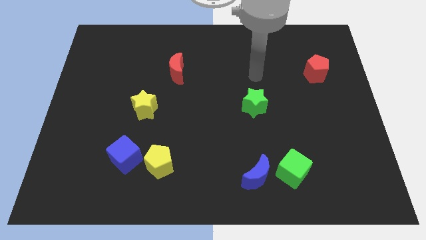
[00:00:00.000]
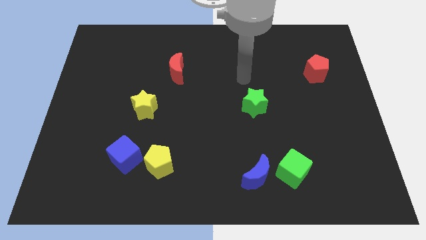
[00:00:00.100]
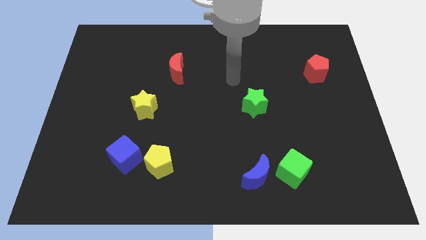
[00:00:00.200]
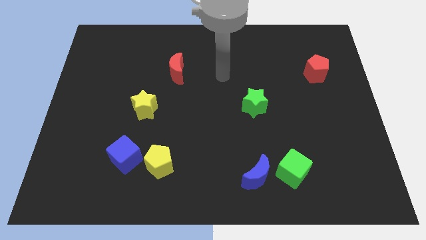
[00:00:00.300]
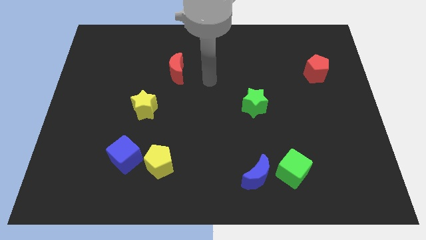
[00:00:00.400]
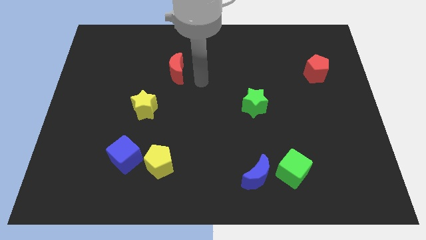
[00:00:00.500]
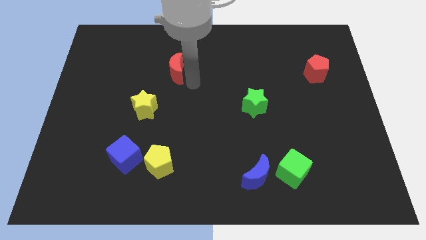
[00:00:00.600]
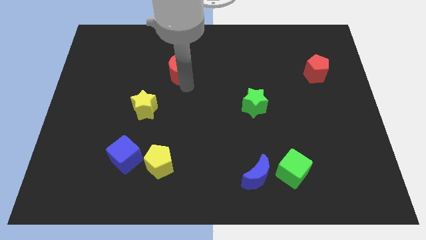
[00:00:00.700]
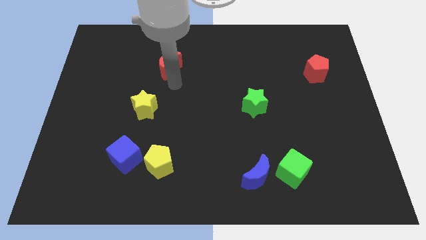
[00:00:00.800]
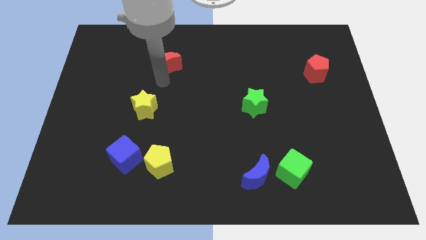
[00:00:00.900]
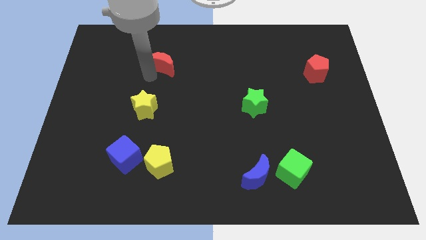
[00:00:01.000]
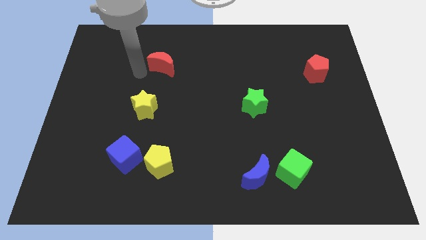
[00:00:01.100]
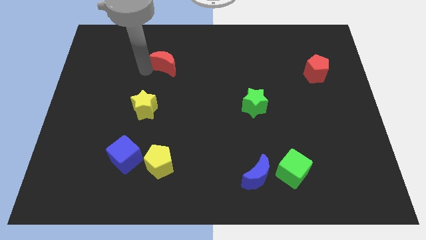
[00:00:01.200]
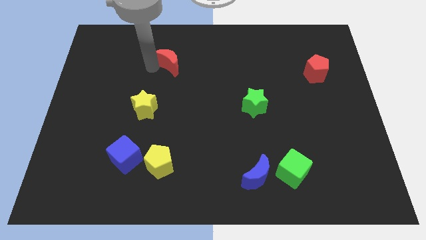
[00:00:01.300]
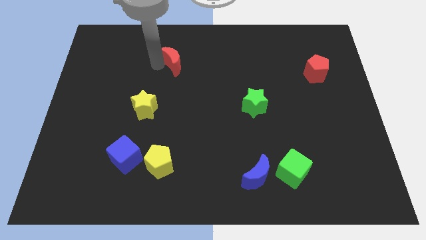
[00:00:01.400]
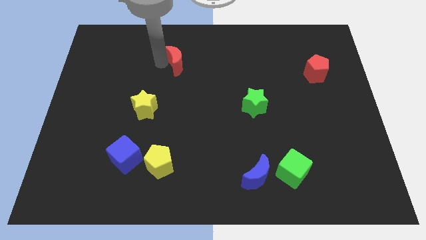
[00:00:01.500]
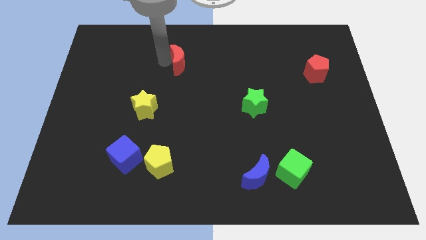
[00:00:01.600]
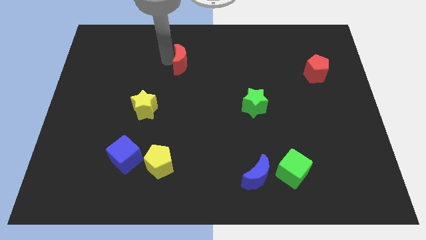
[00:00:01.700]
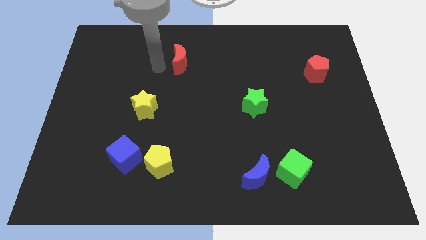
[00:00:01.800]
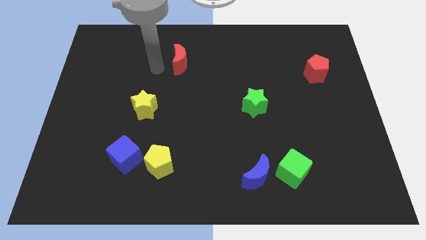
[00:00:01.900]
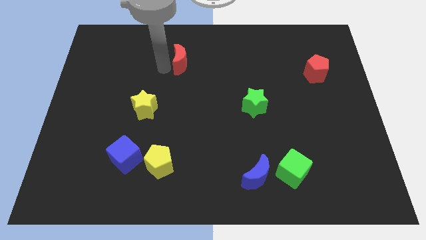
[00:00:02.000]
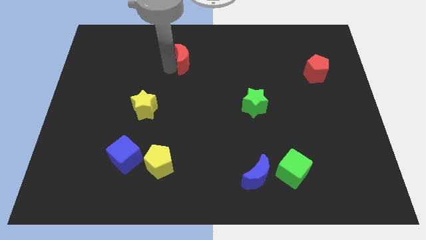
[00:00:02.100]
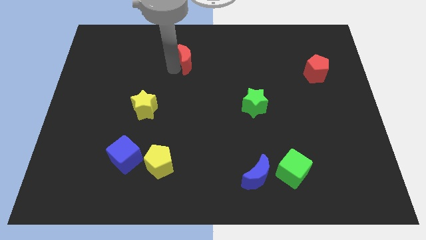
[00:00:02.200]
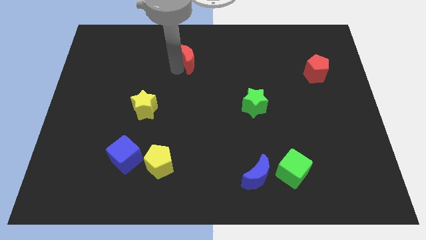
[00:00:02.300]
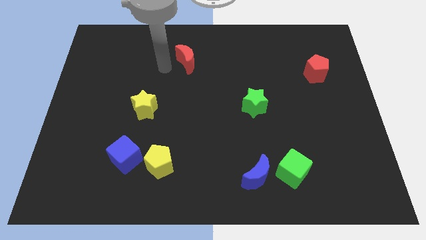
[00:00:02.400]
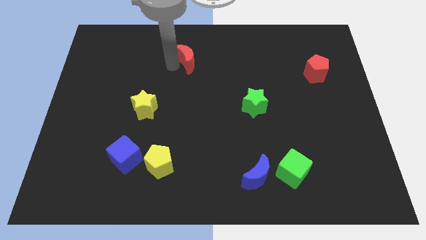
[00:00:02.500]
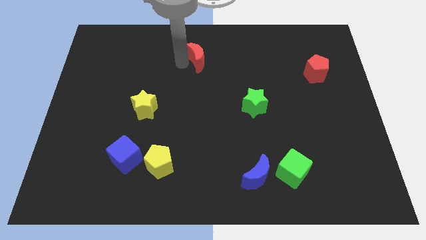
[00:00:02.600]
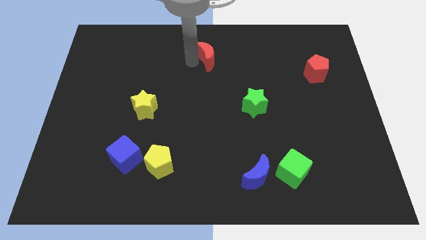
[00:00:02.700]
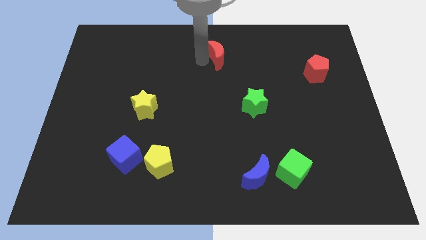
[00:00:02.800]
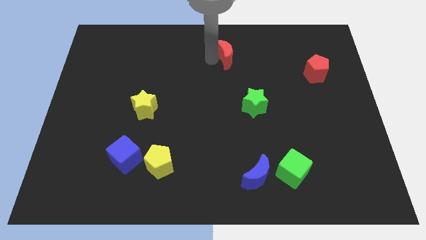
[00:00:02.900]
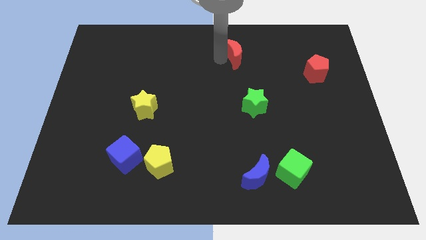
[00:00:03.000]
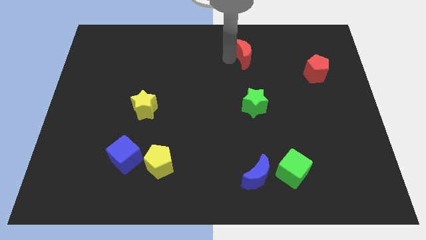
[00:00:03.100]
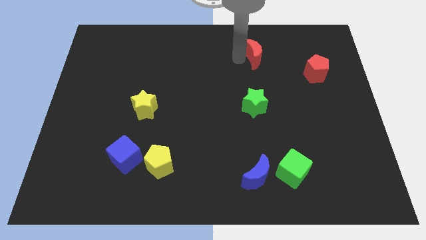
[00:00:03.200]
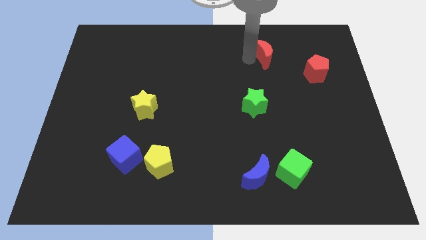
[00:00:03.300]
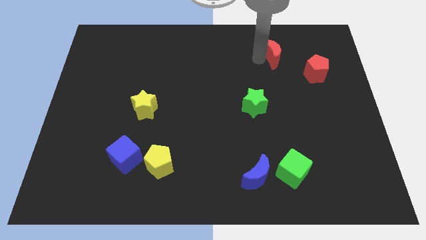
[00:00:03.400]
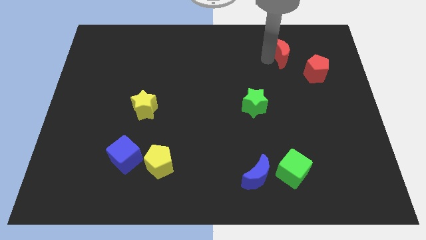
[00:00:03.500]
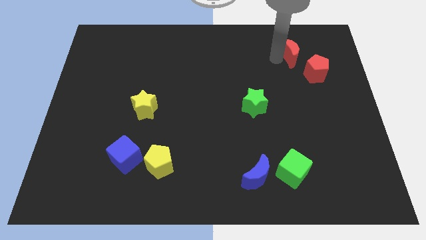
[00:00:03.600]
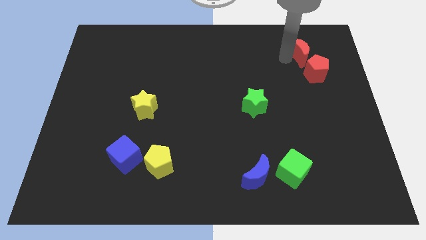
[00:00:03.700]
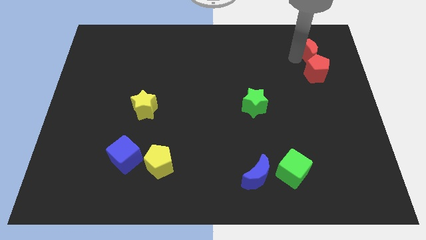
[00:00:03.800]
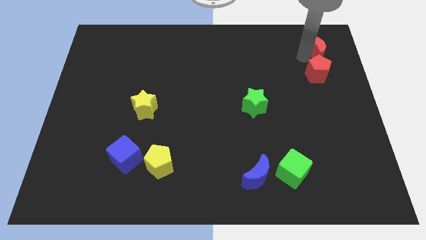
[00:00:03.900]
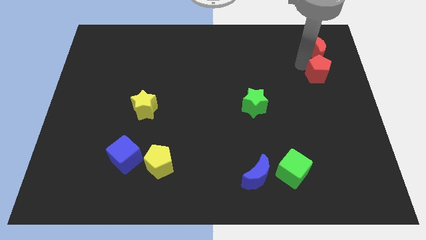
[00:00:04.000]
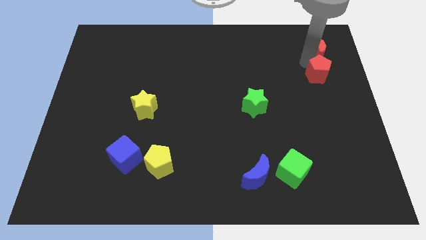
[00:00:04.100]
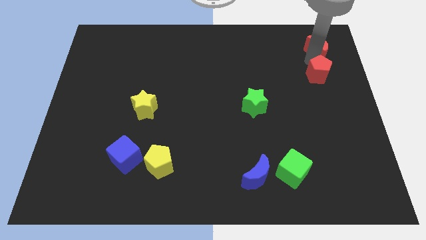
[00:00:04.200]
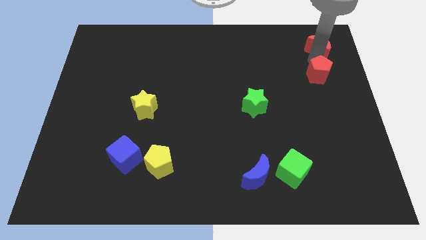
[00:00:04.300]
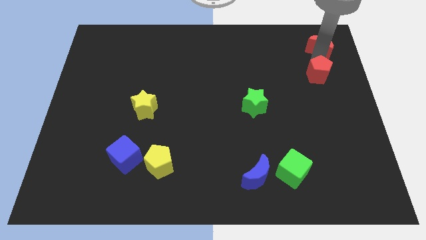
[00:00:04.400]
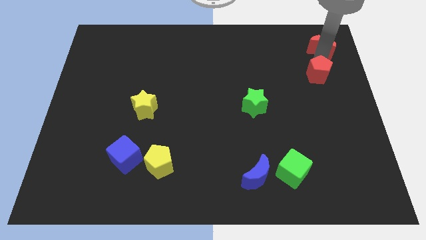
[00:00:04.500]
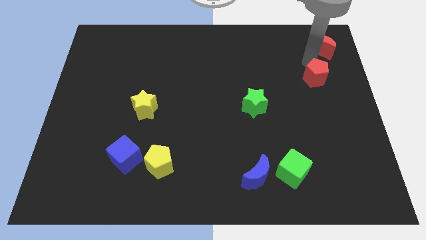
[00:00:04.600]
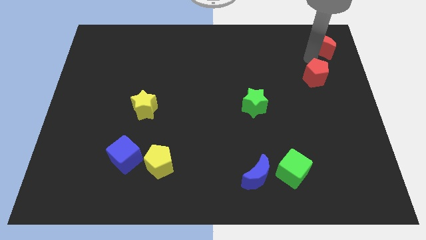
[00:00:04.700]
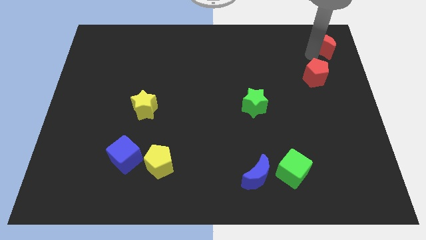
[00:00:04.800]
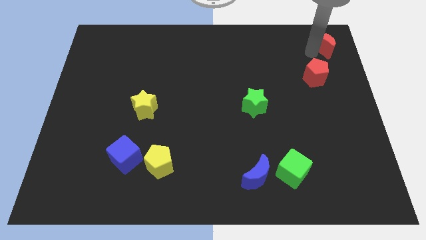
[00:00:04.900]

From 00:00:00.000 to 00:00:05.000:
slide the red moon to the top right of the board
